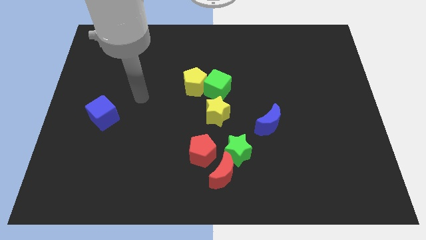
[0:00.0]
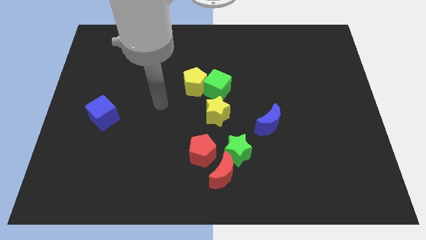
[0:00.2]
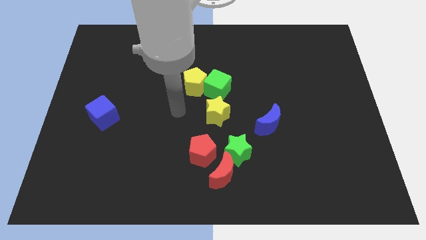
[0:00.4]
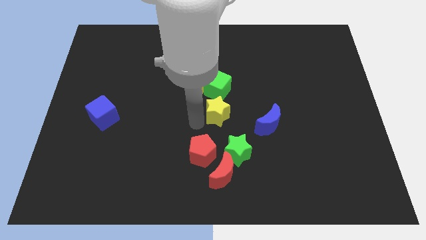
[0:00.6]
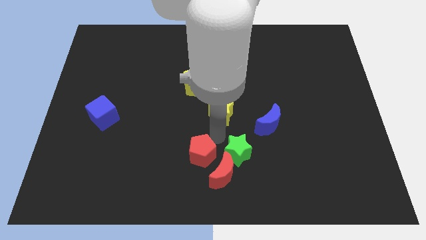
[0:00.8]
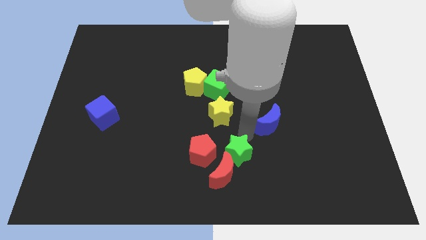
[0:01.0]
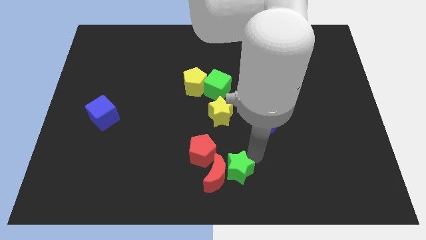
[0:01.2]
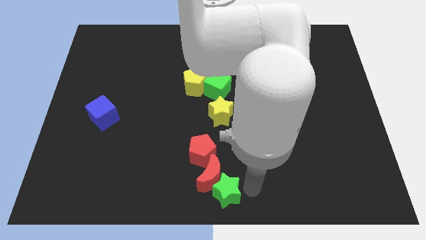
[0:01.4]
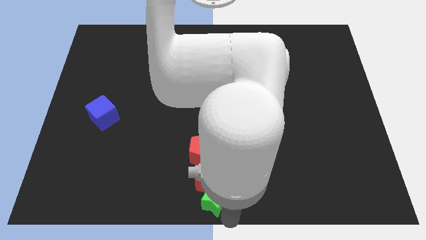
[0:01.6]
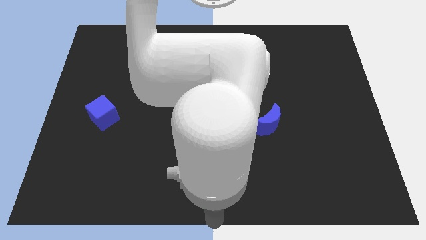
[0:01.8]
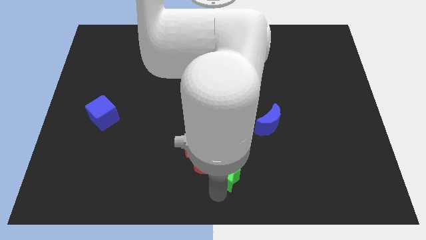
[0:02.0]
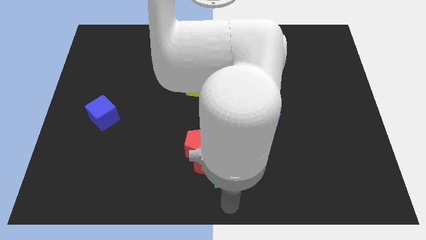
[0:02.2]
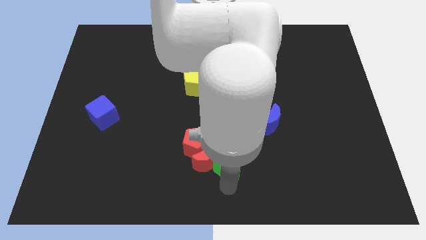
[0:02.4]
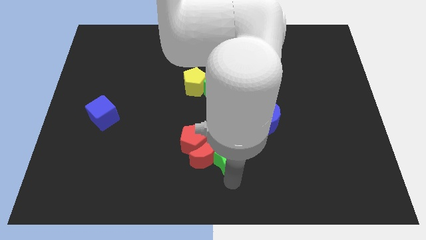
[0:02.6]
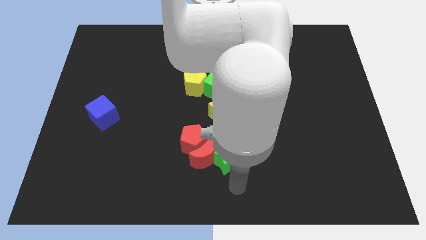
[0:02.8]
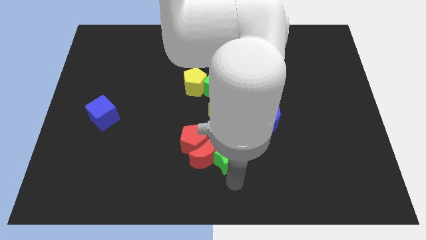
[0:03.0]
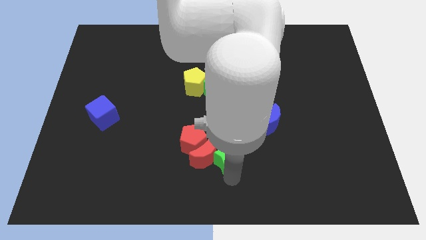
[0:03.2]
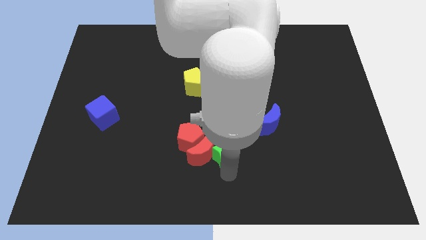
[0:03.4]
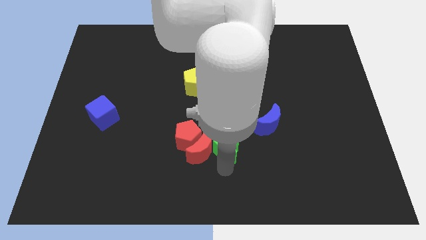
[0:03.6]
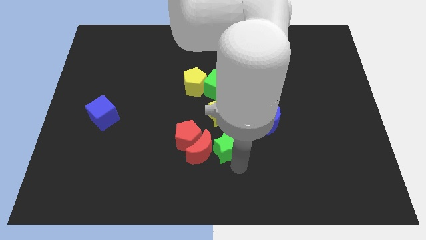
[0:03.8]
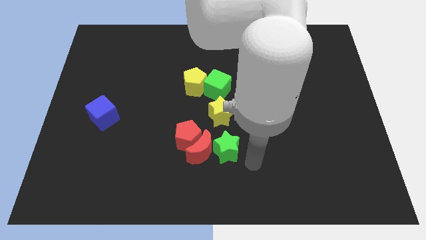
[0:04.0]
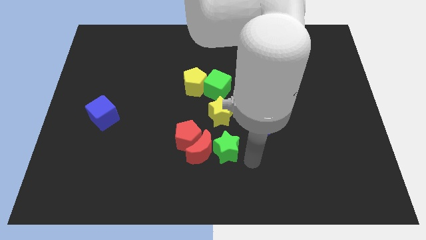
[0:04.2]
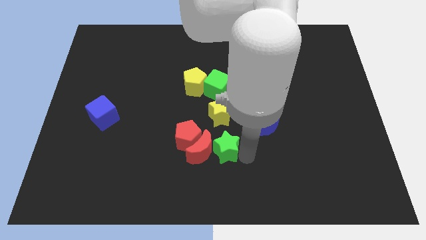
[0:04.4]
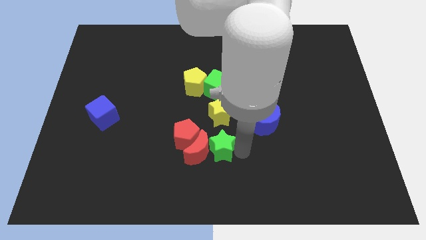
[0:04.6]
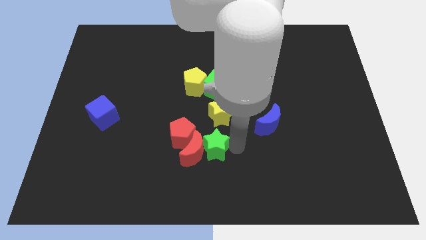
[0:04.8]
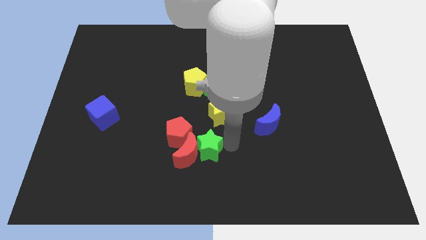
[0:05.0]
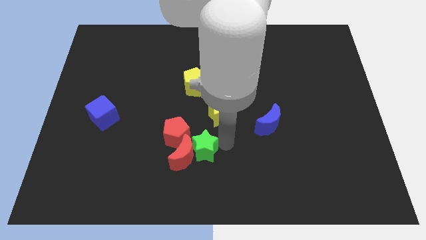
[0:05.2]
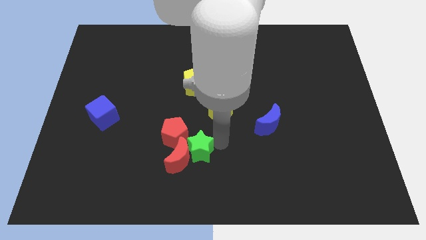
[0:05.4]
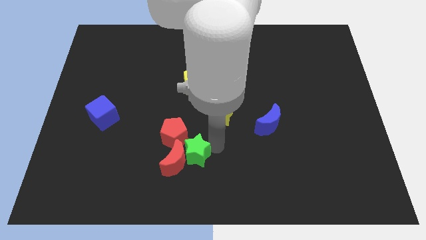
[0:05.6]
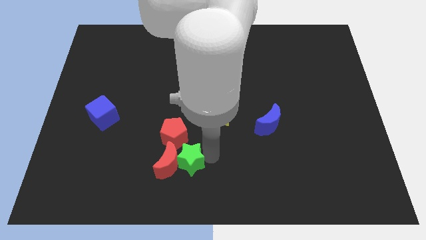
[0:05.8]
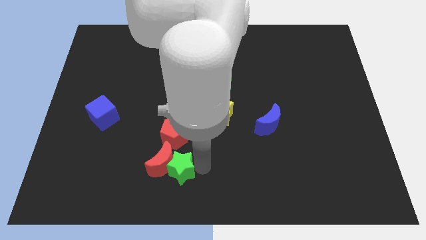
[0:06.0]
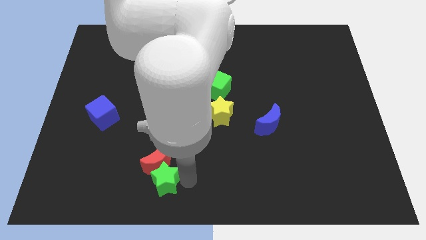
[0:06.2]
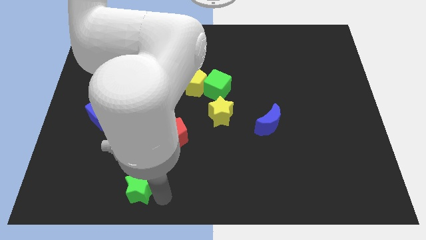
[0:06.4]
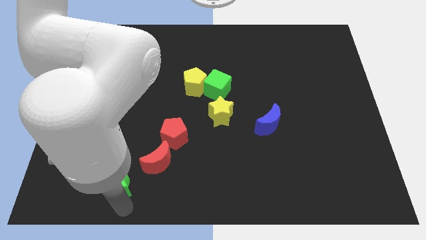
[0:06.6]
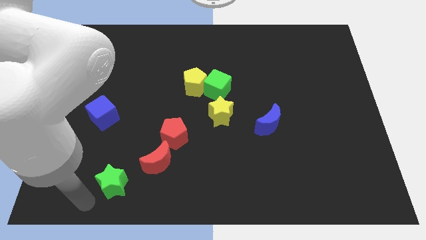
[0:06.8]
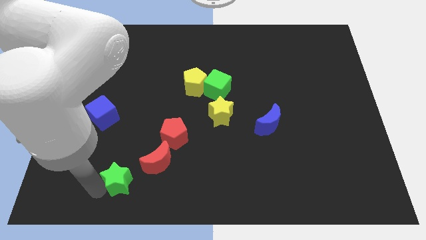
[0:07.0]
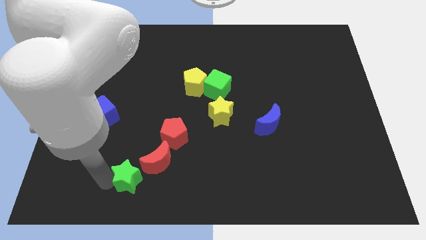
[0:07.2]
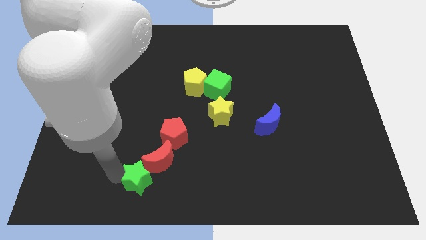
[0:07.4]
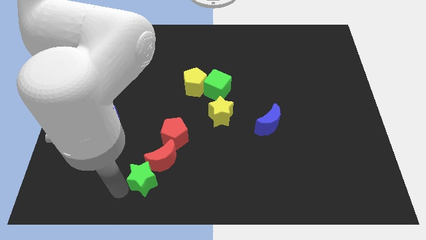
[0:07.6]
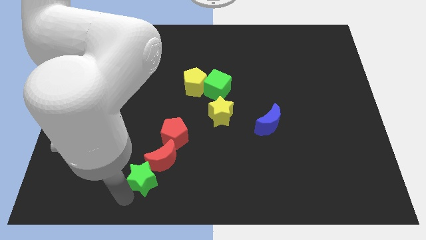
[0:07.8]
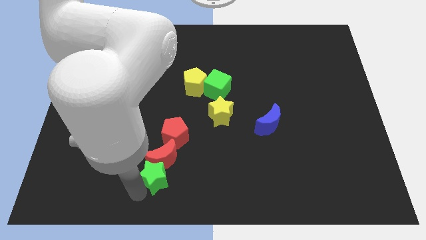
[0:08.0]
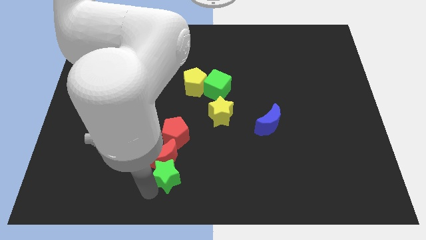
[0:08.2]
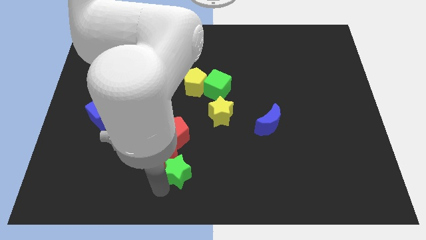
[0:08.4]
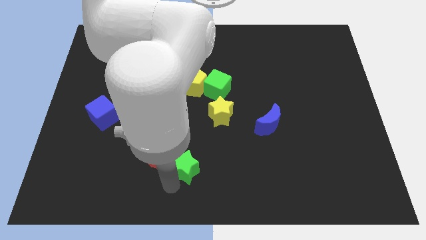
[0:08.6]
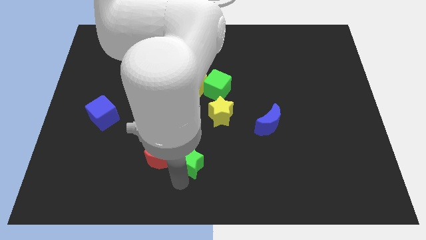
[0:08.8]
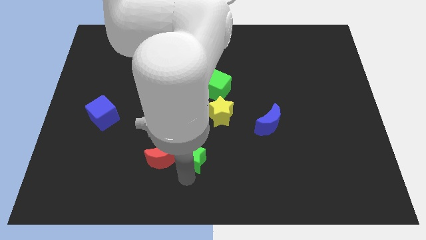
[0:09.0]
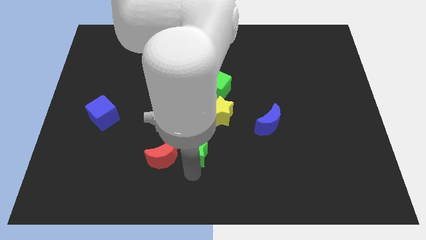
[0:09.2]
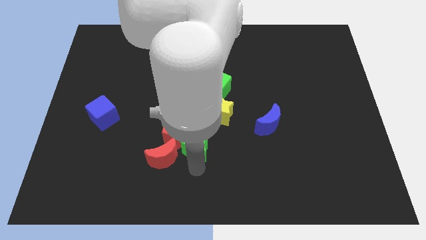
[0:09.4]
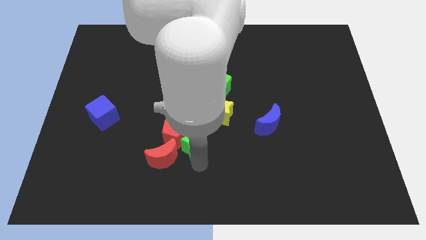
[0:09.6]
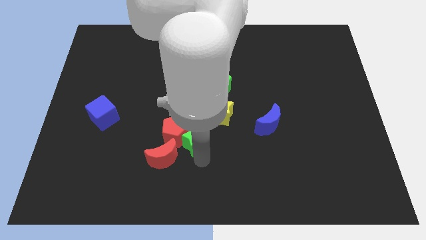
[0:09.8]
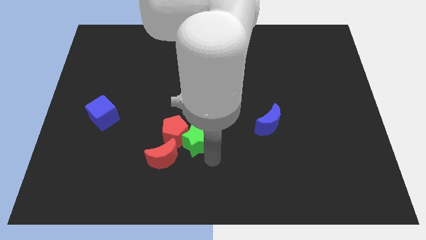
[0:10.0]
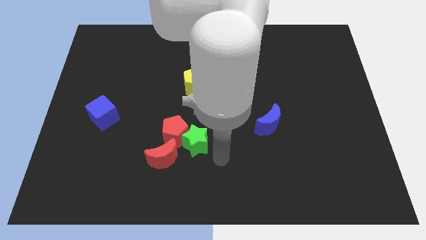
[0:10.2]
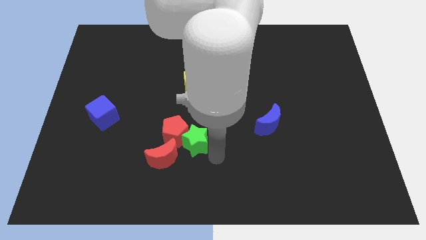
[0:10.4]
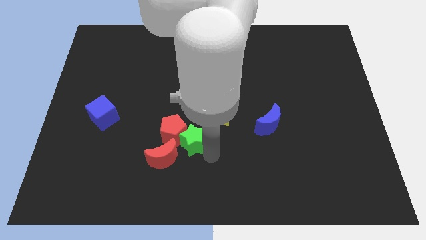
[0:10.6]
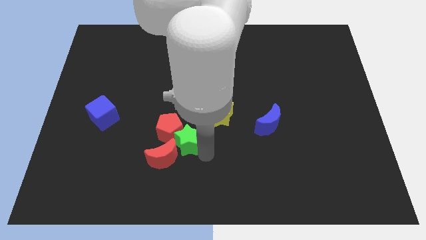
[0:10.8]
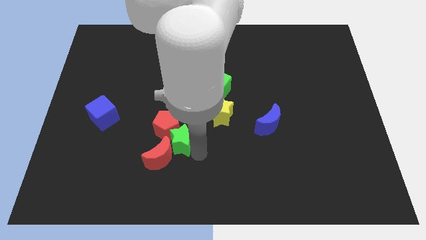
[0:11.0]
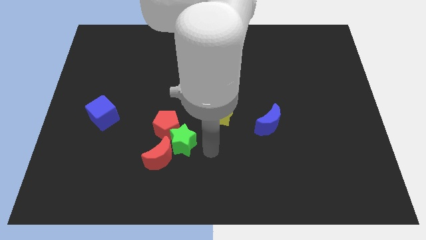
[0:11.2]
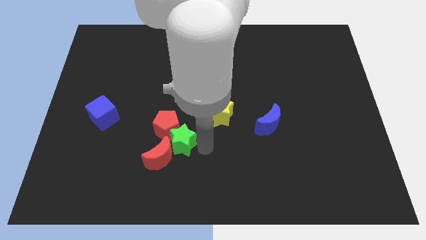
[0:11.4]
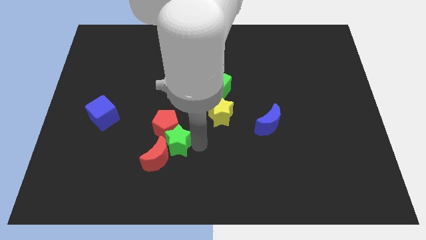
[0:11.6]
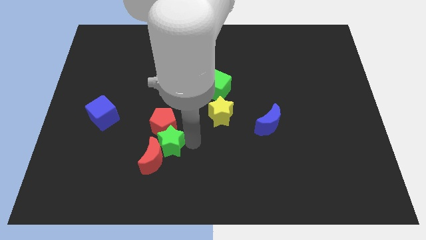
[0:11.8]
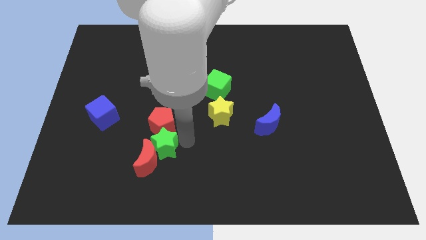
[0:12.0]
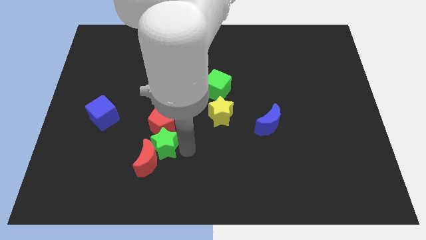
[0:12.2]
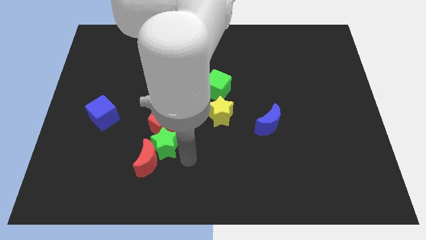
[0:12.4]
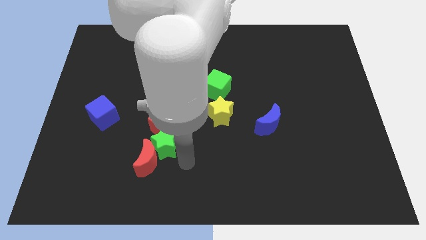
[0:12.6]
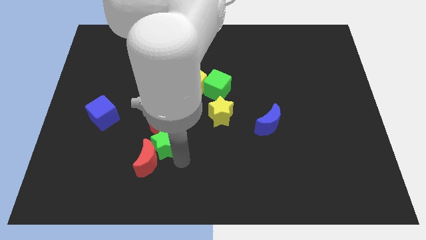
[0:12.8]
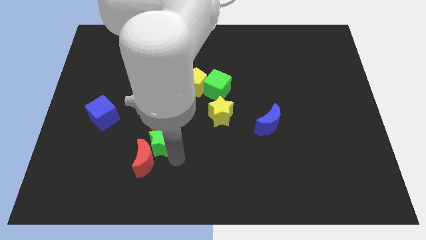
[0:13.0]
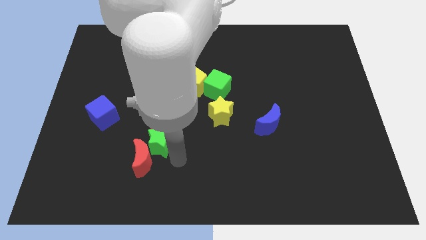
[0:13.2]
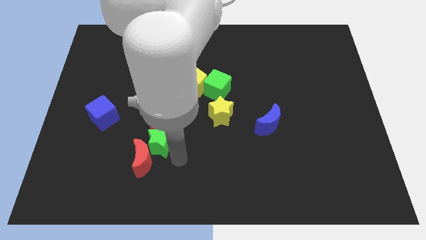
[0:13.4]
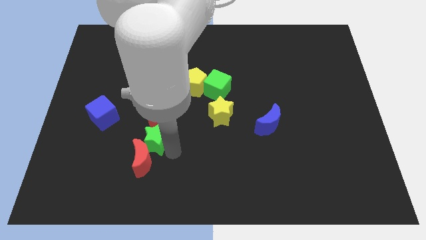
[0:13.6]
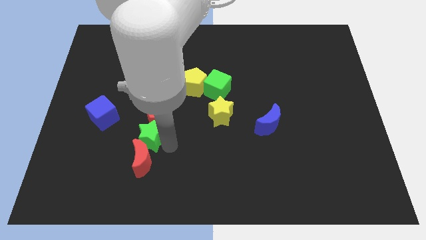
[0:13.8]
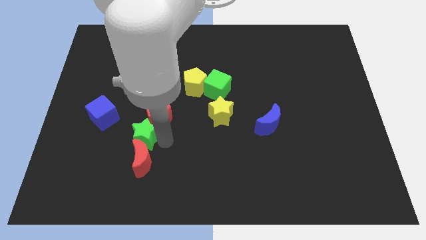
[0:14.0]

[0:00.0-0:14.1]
put the green star diagonally down and to the right of the blue cube
